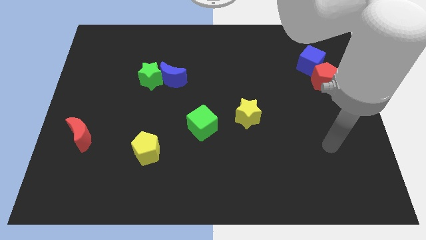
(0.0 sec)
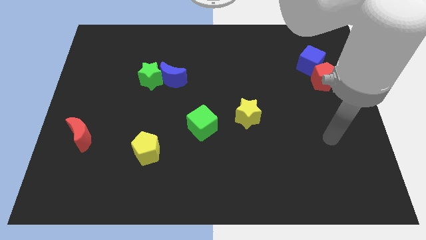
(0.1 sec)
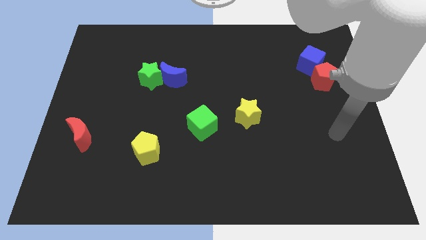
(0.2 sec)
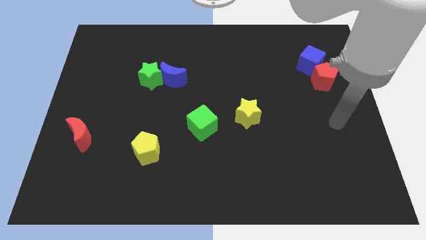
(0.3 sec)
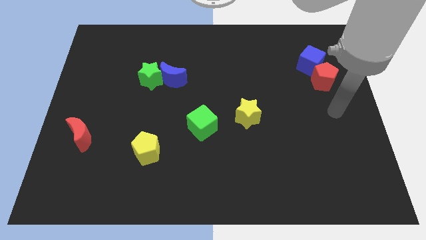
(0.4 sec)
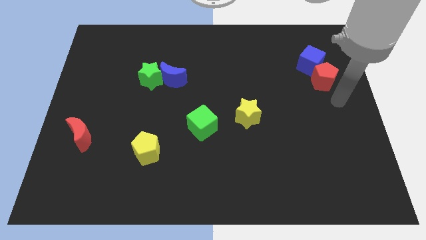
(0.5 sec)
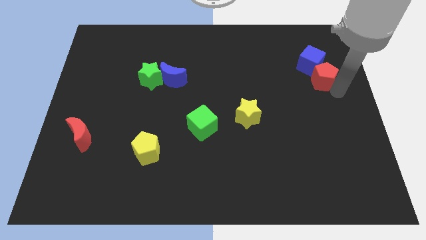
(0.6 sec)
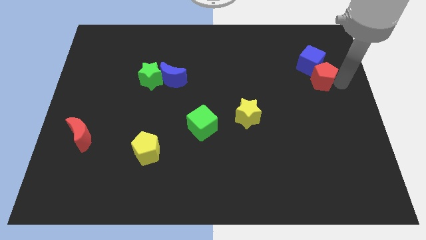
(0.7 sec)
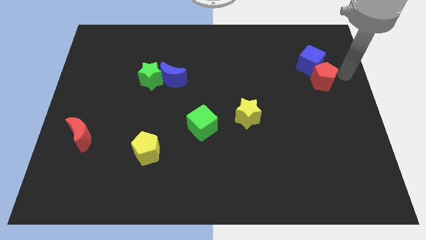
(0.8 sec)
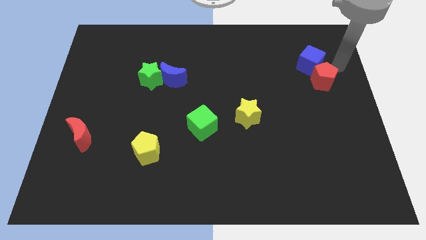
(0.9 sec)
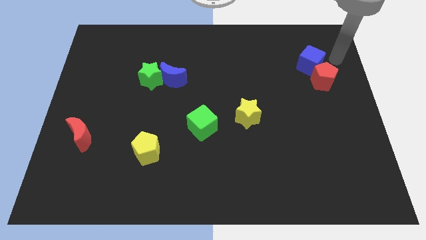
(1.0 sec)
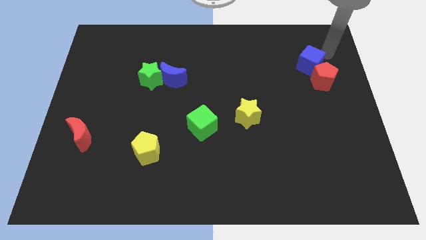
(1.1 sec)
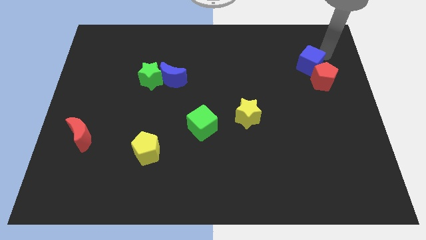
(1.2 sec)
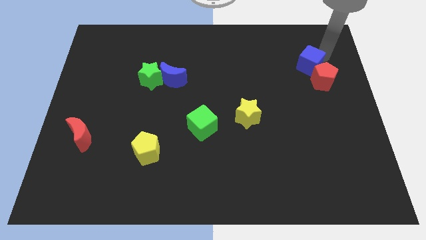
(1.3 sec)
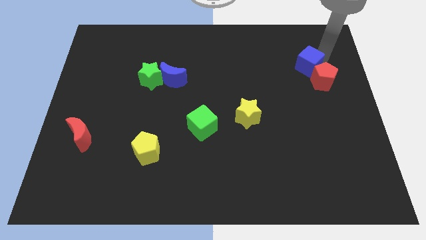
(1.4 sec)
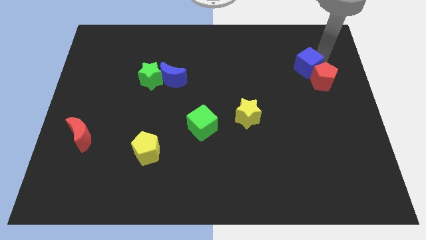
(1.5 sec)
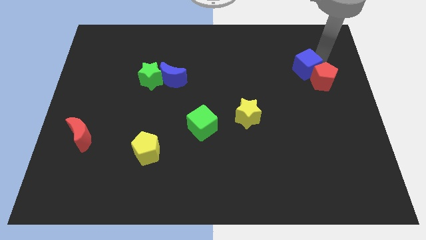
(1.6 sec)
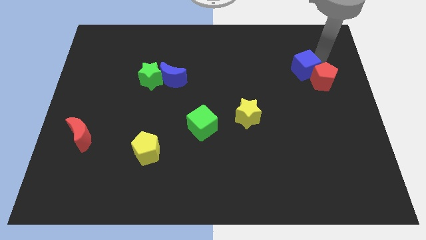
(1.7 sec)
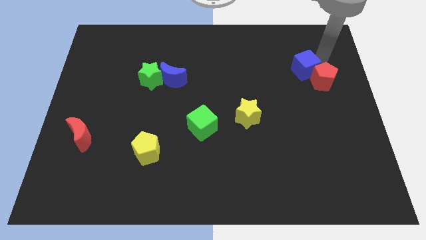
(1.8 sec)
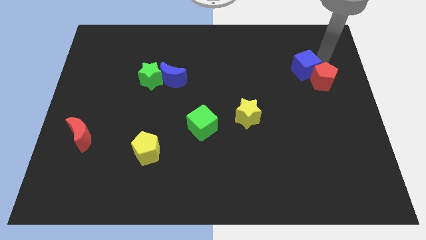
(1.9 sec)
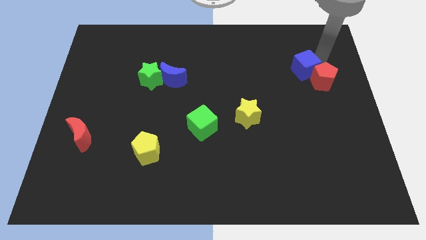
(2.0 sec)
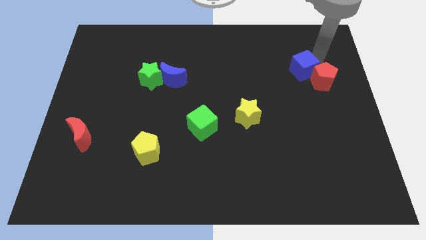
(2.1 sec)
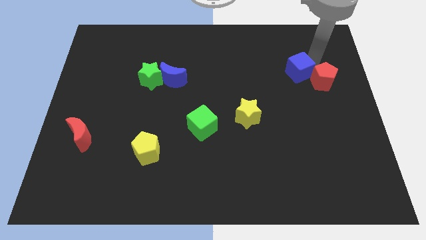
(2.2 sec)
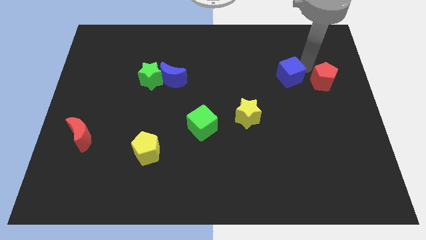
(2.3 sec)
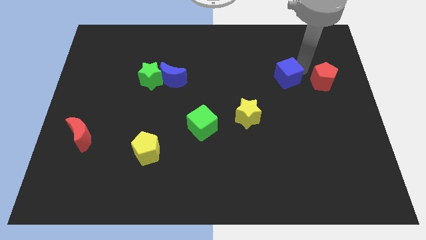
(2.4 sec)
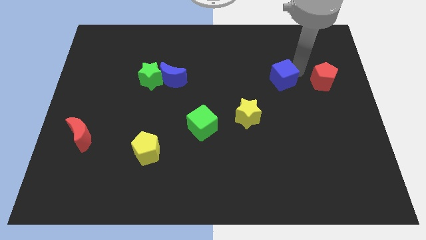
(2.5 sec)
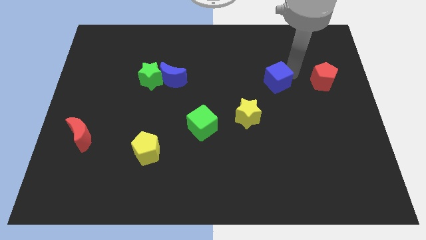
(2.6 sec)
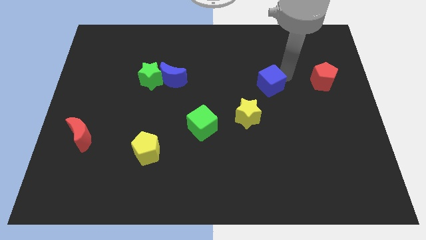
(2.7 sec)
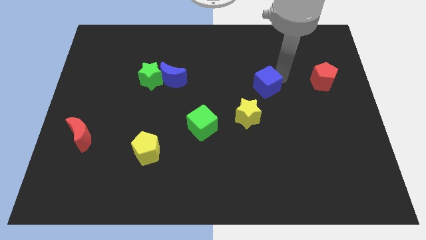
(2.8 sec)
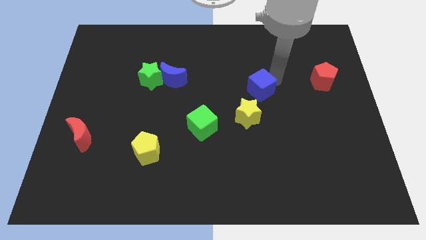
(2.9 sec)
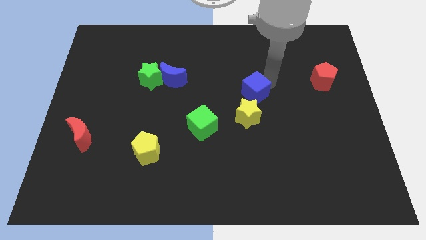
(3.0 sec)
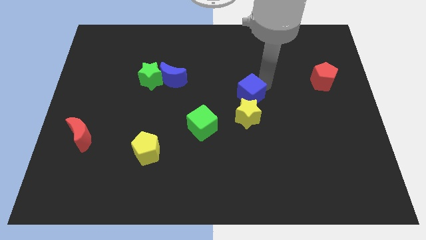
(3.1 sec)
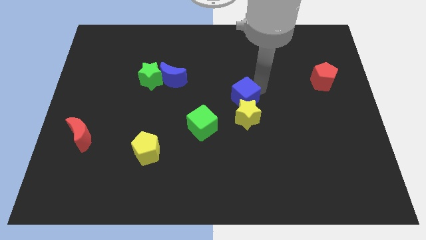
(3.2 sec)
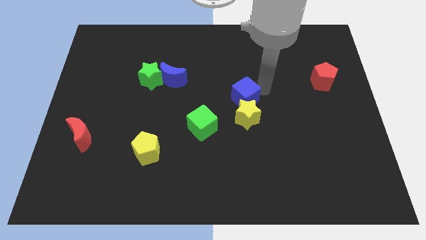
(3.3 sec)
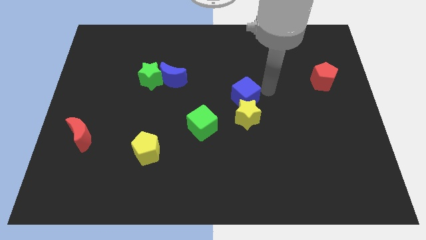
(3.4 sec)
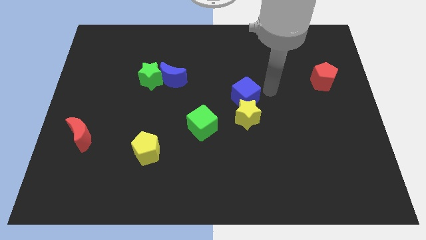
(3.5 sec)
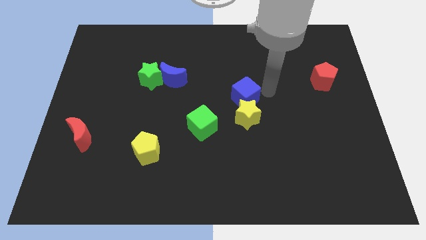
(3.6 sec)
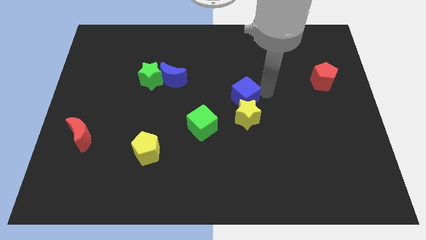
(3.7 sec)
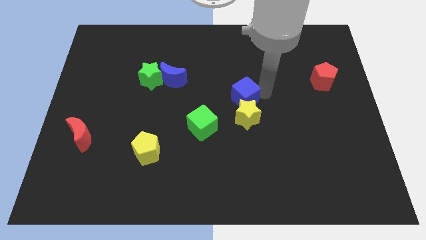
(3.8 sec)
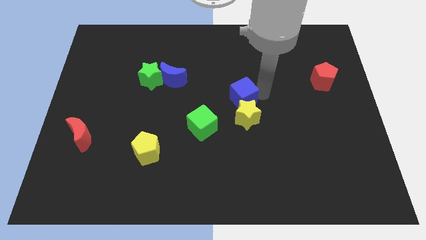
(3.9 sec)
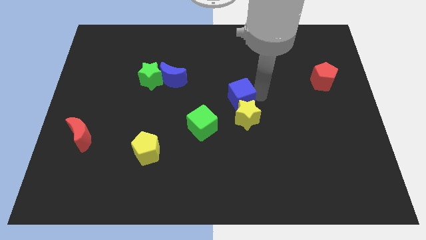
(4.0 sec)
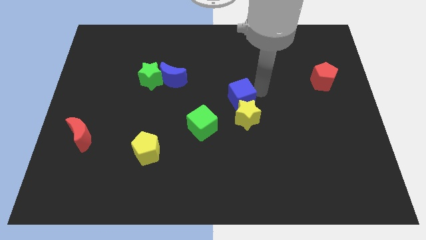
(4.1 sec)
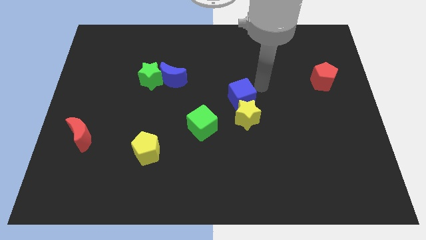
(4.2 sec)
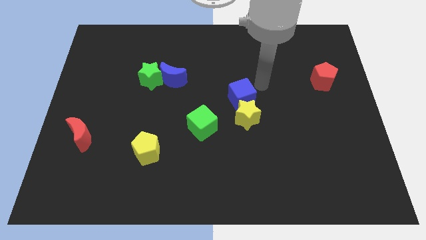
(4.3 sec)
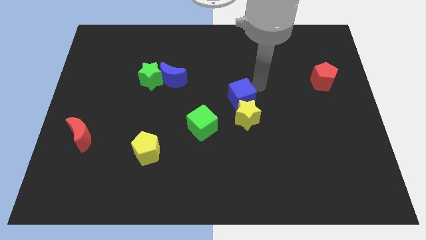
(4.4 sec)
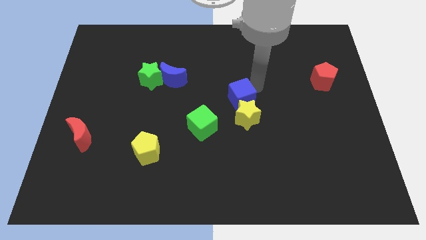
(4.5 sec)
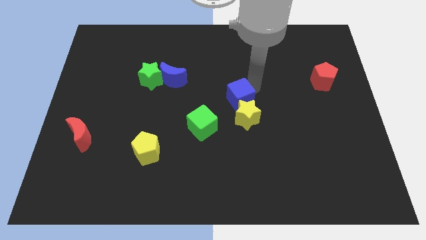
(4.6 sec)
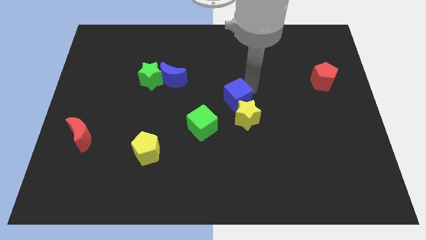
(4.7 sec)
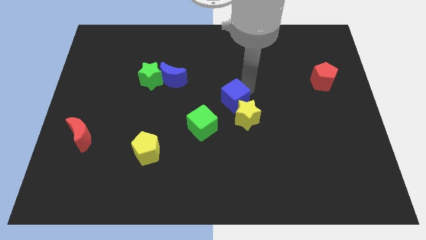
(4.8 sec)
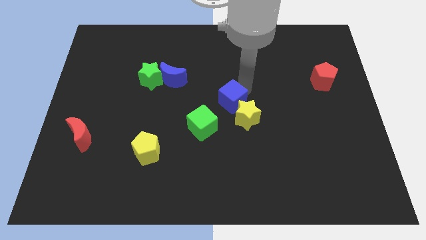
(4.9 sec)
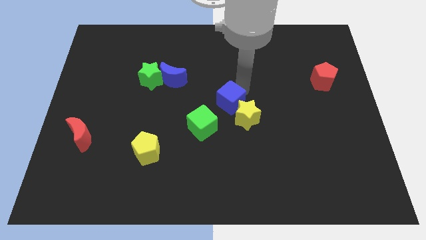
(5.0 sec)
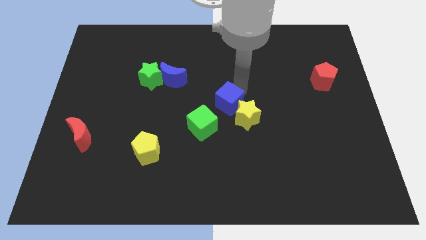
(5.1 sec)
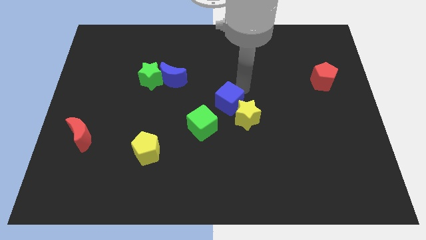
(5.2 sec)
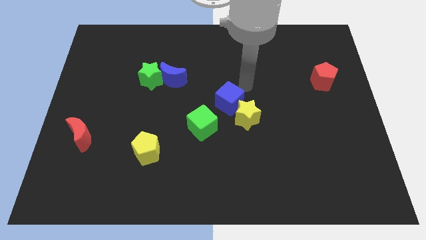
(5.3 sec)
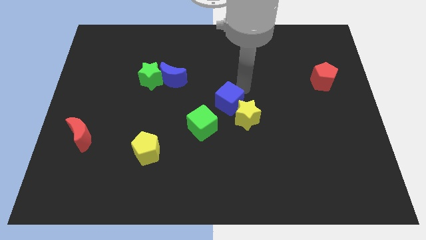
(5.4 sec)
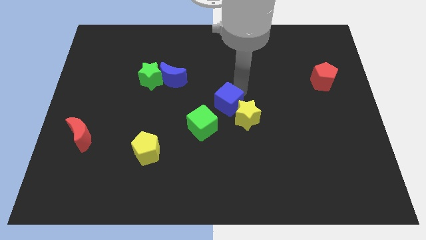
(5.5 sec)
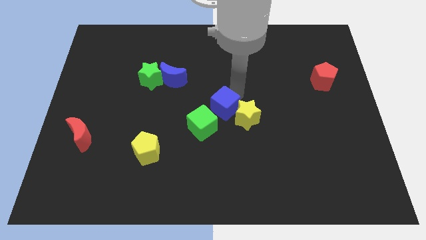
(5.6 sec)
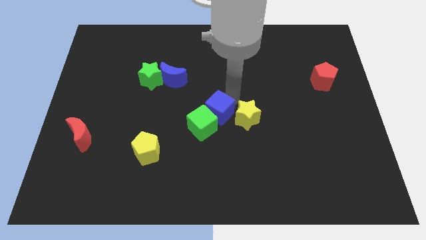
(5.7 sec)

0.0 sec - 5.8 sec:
move the blue cube towards the green cube

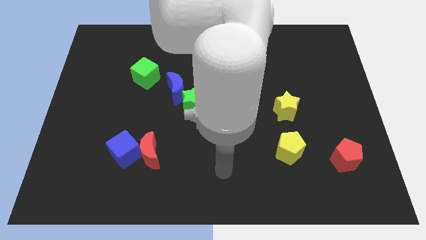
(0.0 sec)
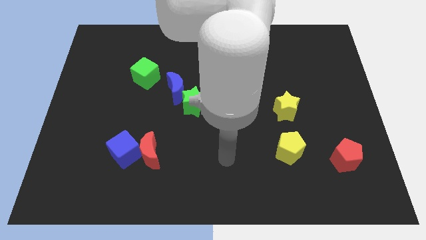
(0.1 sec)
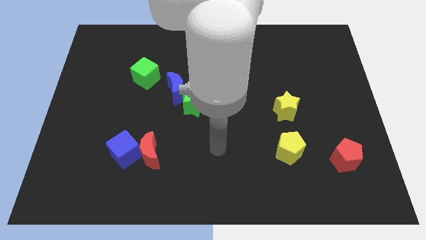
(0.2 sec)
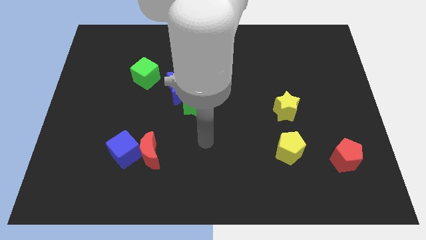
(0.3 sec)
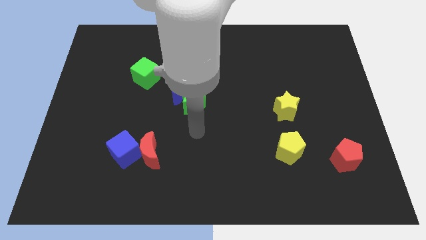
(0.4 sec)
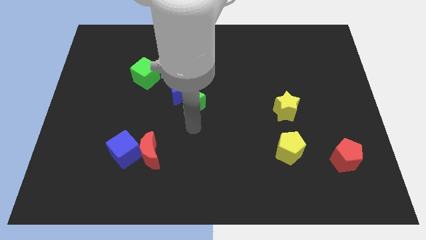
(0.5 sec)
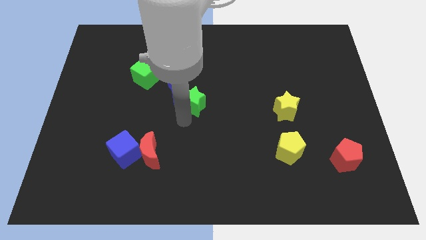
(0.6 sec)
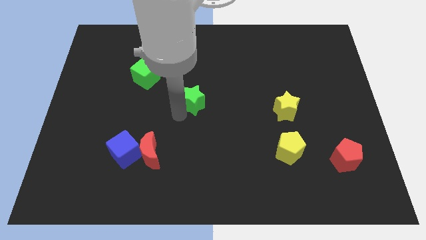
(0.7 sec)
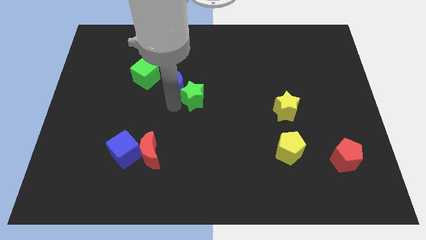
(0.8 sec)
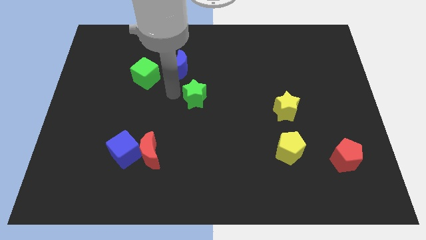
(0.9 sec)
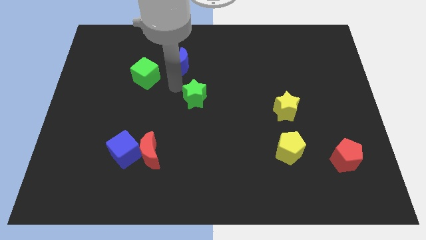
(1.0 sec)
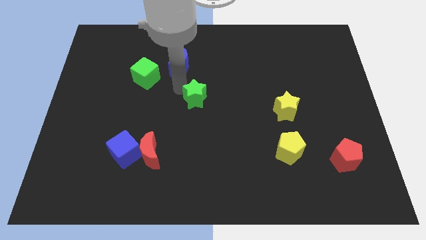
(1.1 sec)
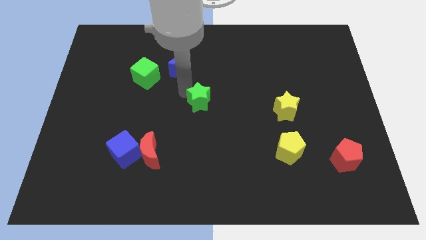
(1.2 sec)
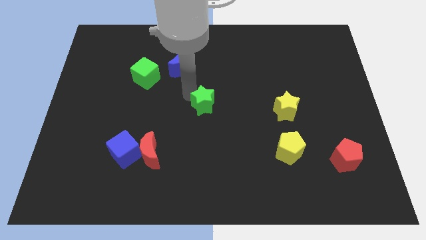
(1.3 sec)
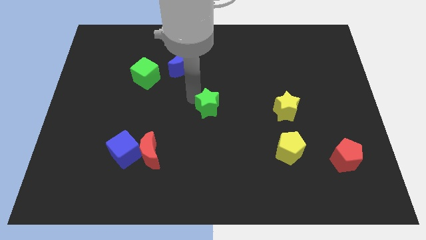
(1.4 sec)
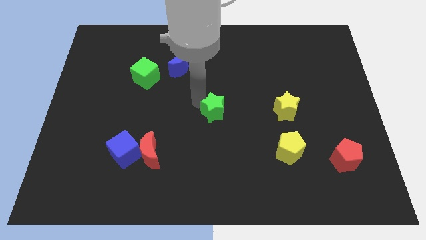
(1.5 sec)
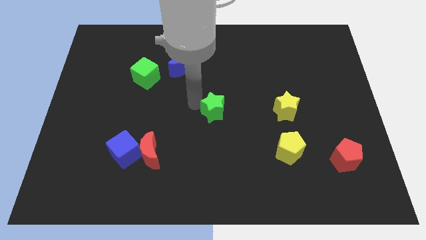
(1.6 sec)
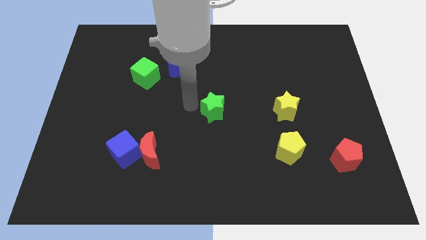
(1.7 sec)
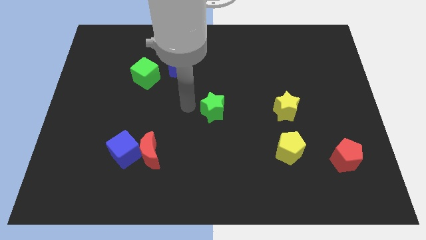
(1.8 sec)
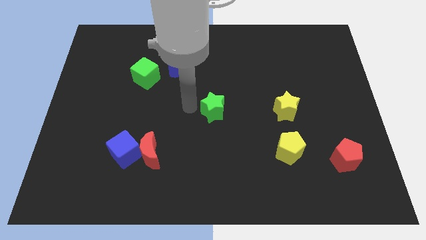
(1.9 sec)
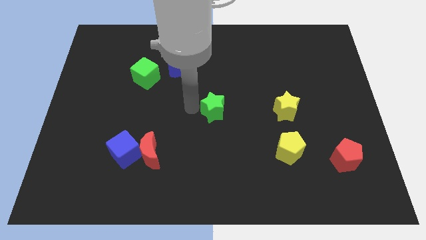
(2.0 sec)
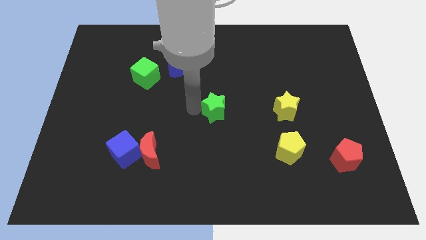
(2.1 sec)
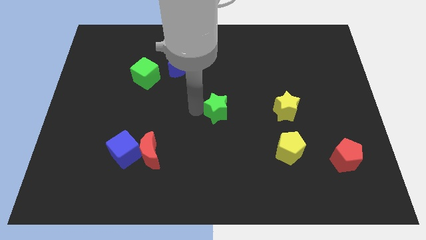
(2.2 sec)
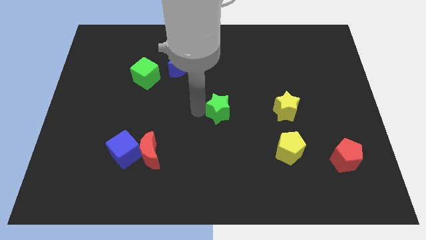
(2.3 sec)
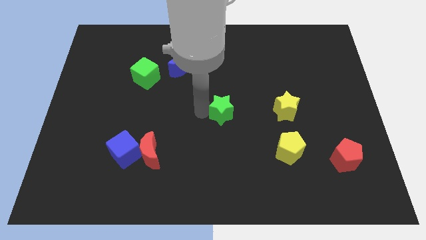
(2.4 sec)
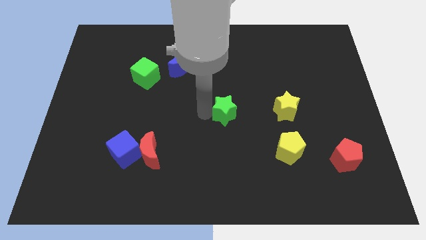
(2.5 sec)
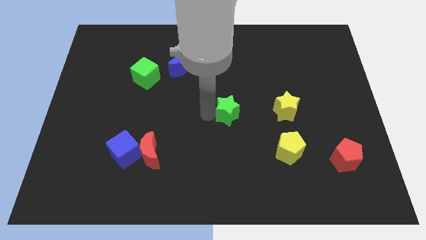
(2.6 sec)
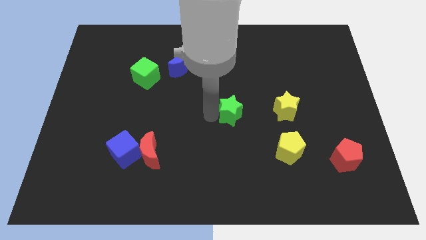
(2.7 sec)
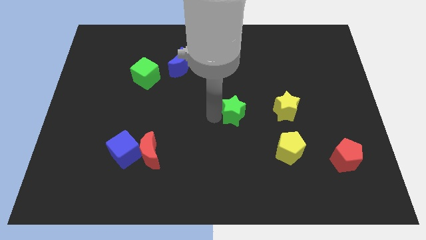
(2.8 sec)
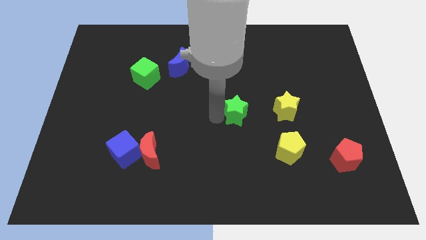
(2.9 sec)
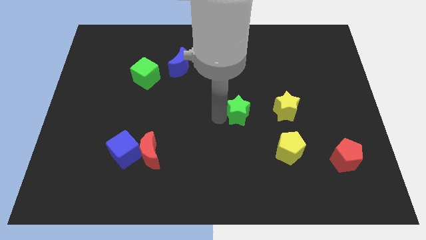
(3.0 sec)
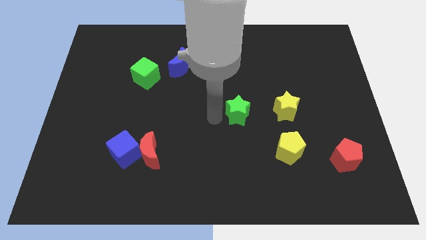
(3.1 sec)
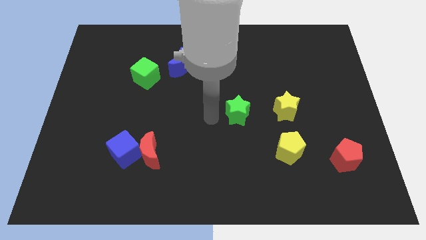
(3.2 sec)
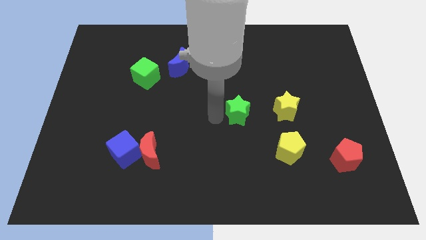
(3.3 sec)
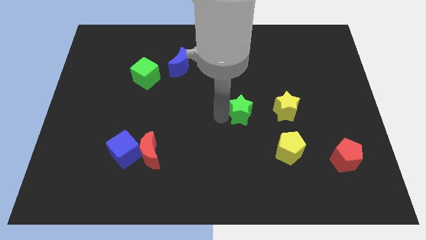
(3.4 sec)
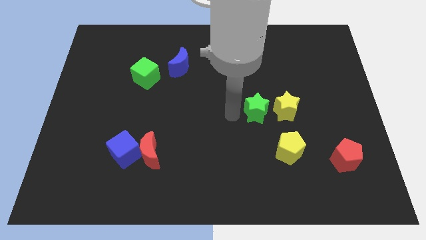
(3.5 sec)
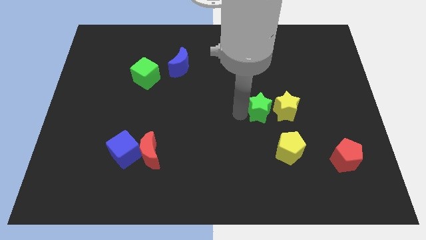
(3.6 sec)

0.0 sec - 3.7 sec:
put the green star close to the yellow star
